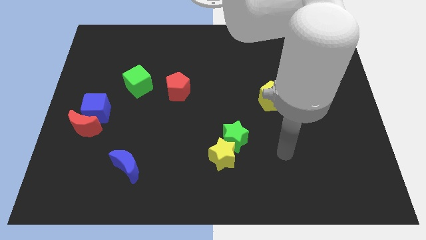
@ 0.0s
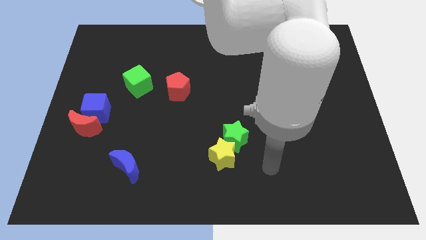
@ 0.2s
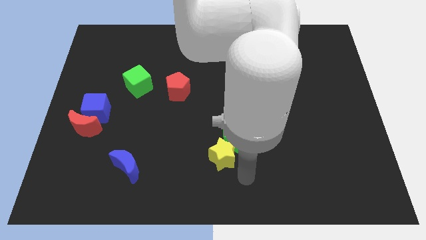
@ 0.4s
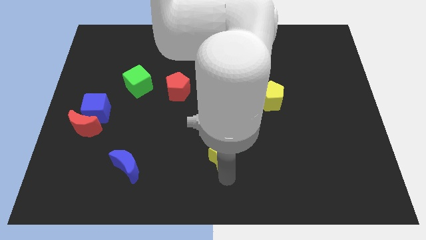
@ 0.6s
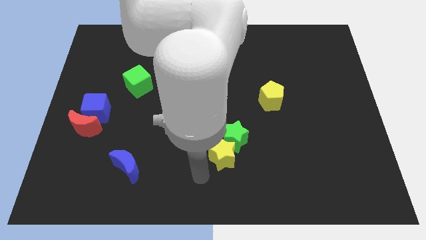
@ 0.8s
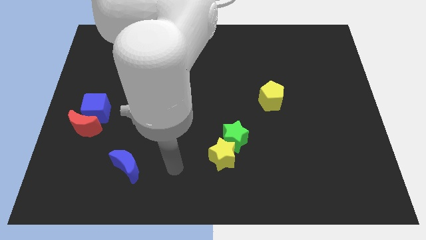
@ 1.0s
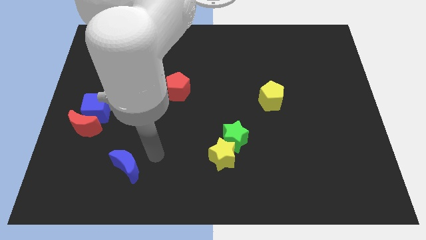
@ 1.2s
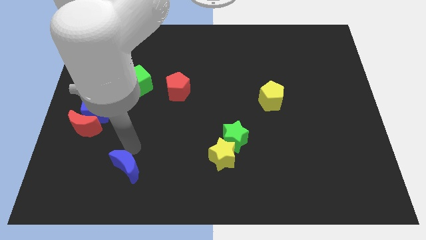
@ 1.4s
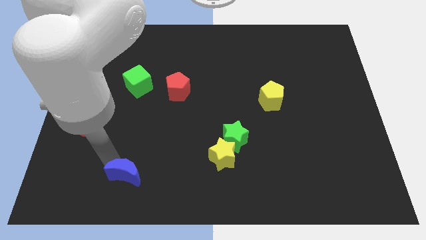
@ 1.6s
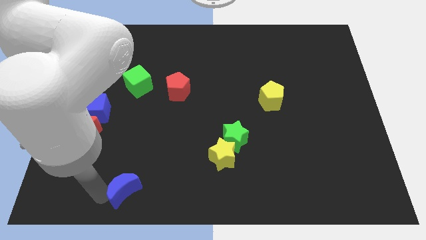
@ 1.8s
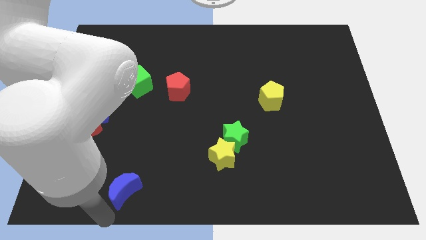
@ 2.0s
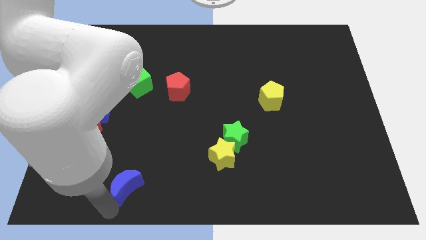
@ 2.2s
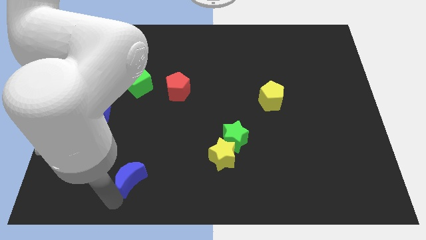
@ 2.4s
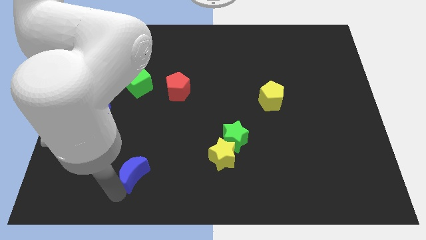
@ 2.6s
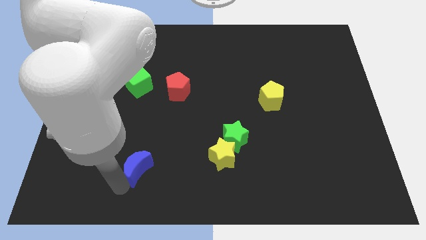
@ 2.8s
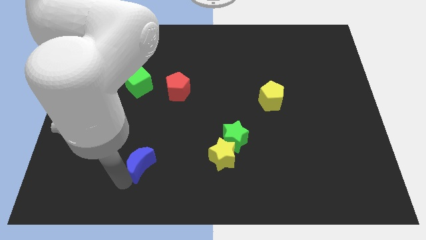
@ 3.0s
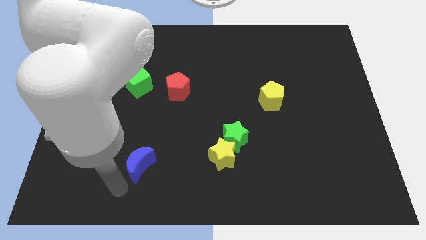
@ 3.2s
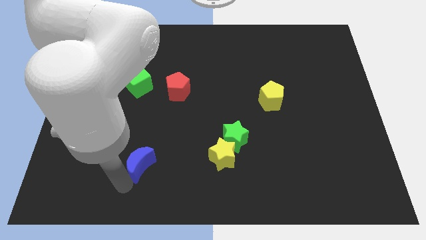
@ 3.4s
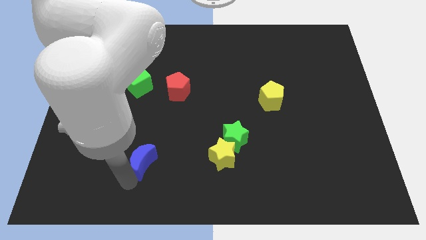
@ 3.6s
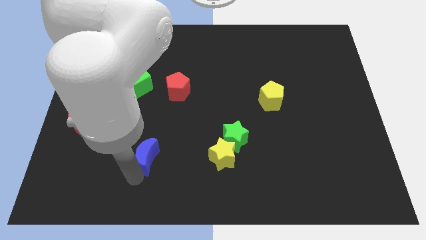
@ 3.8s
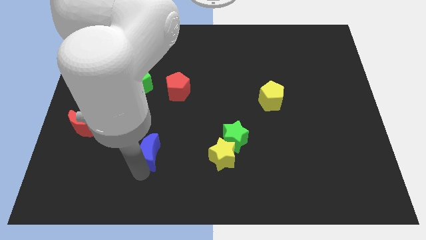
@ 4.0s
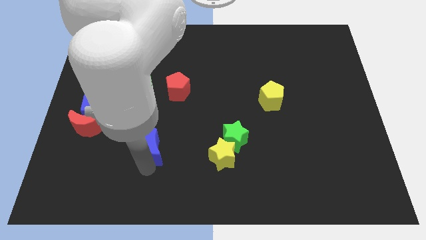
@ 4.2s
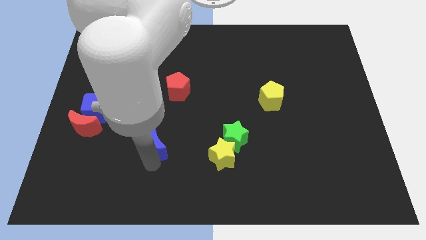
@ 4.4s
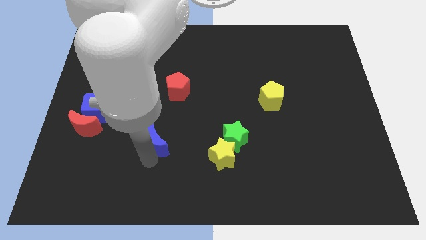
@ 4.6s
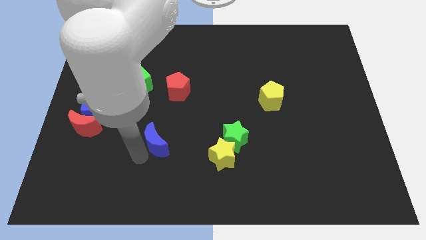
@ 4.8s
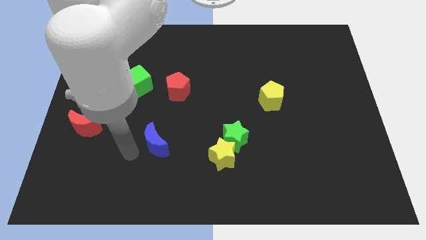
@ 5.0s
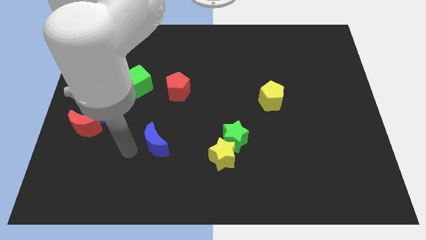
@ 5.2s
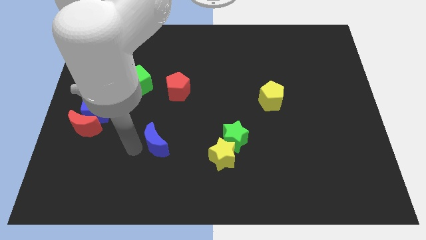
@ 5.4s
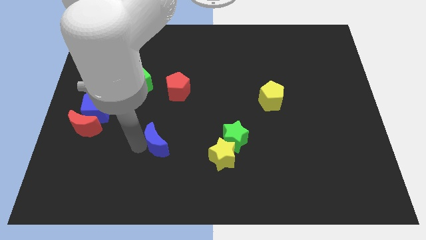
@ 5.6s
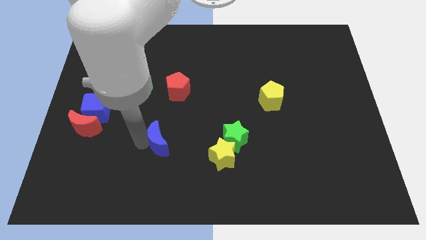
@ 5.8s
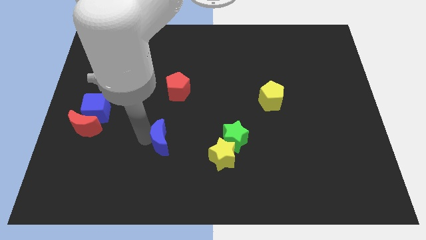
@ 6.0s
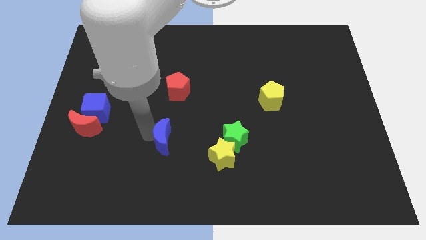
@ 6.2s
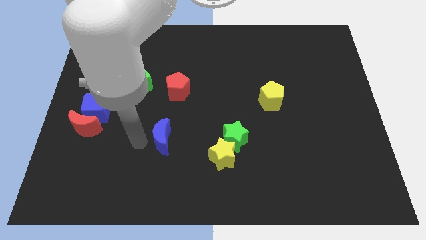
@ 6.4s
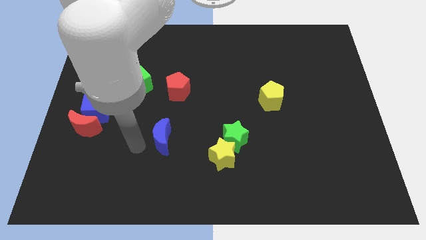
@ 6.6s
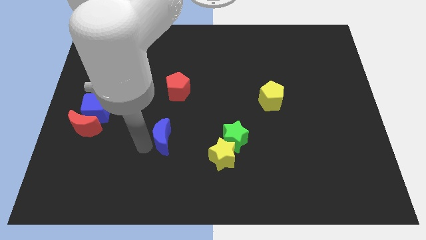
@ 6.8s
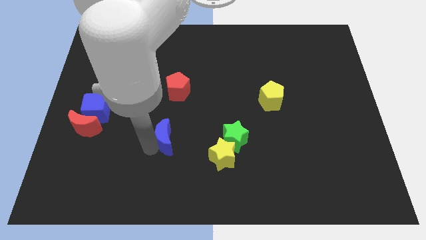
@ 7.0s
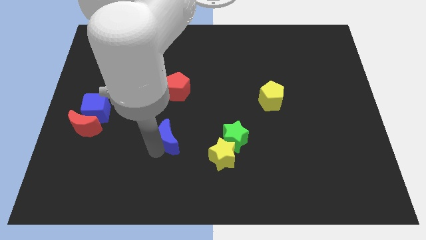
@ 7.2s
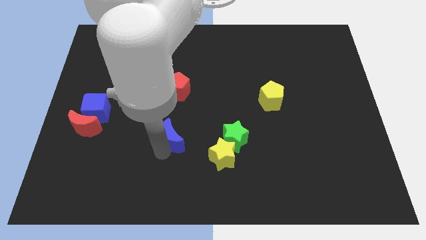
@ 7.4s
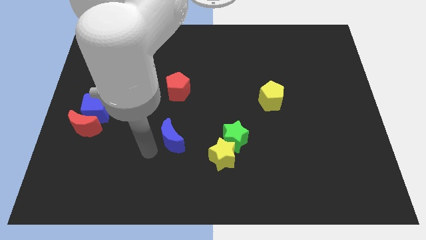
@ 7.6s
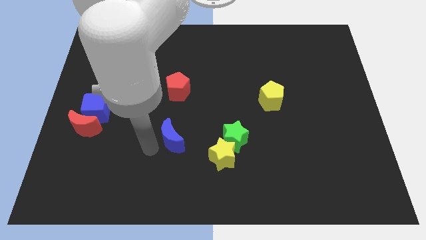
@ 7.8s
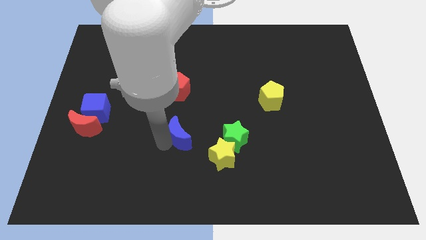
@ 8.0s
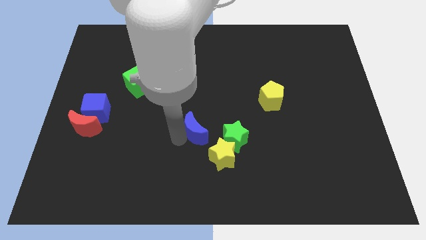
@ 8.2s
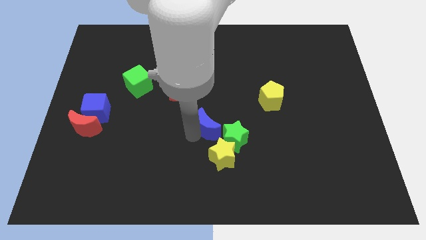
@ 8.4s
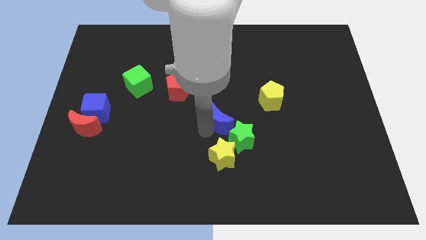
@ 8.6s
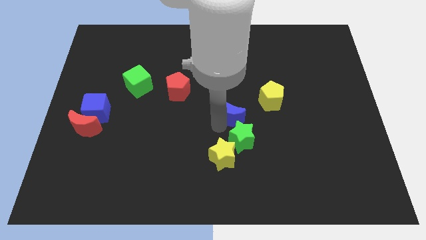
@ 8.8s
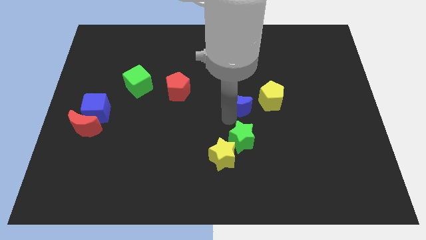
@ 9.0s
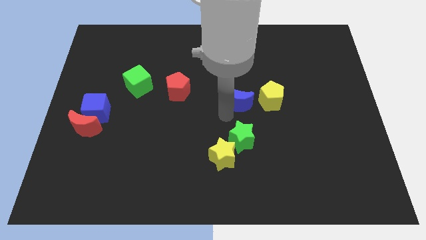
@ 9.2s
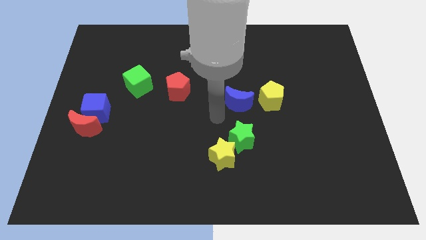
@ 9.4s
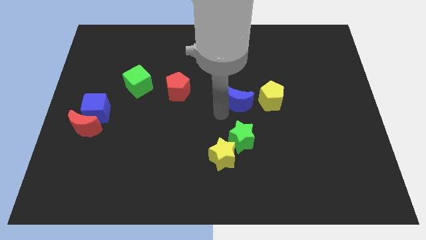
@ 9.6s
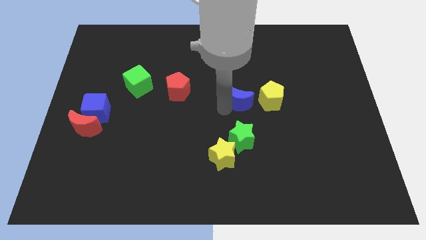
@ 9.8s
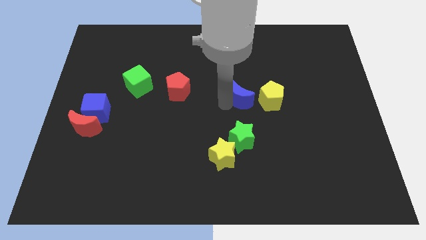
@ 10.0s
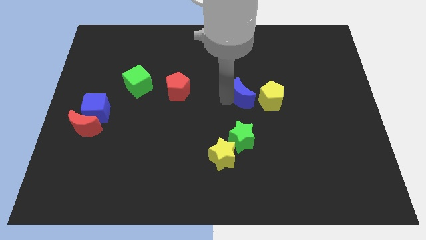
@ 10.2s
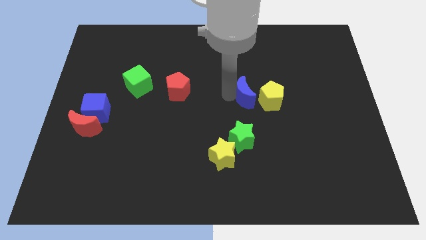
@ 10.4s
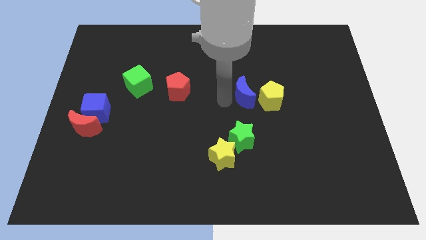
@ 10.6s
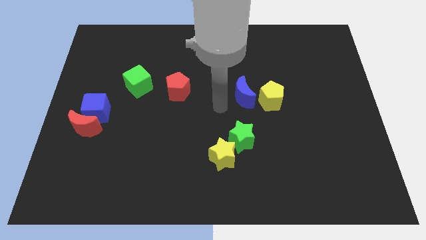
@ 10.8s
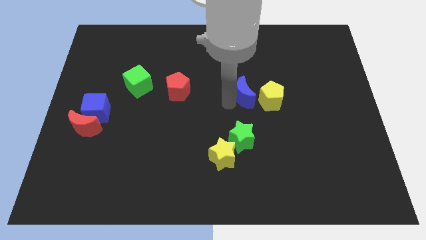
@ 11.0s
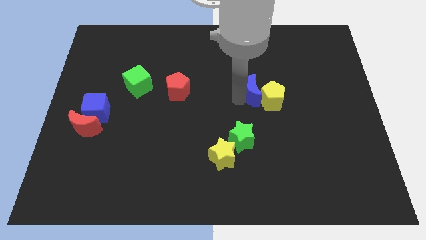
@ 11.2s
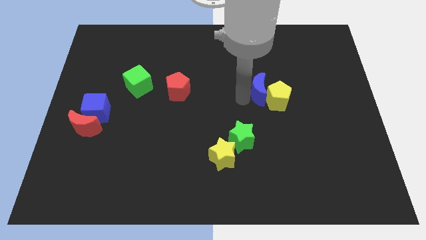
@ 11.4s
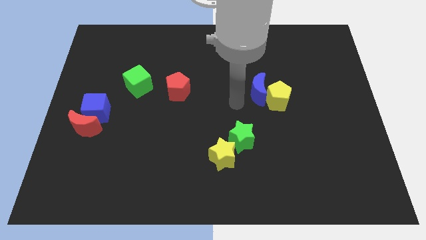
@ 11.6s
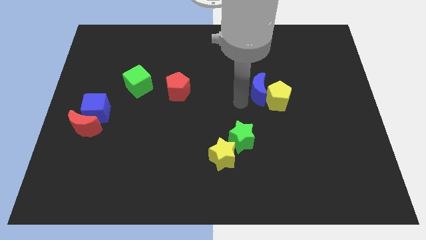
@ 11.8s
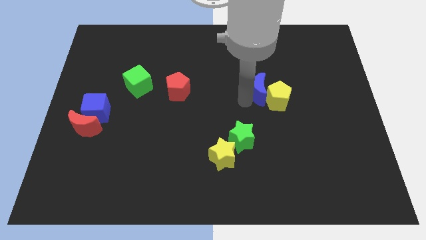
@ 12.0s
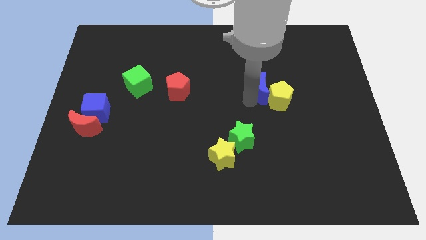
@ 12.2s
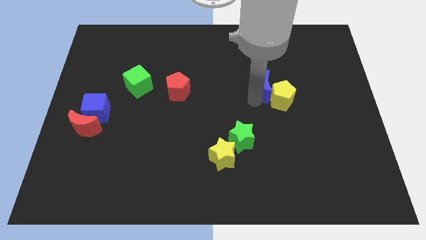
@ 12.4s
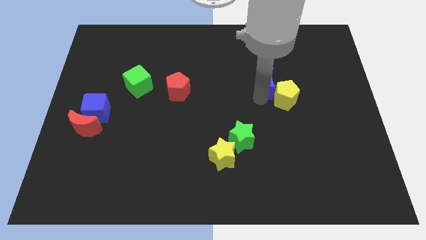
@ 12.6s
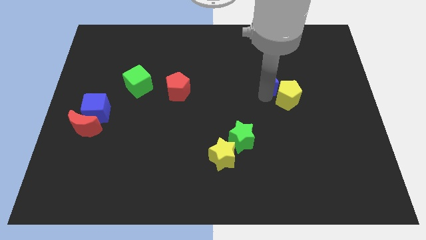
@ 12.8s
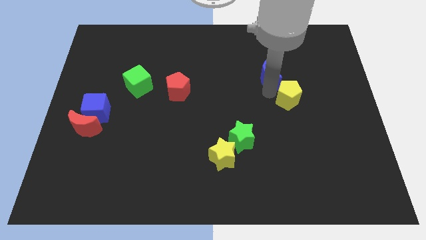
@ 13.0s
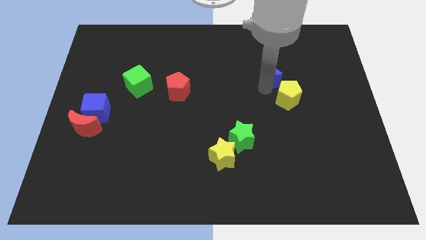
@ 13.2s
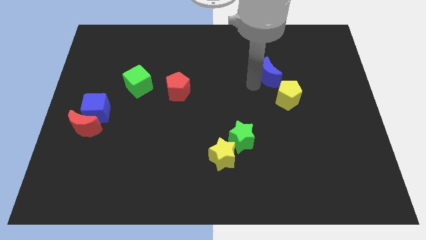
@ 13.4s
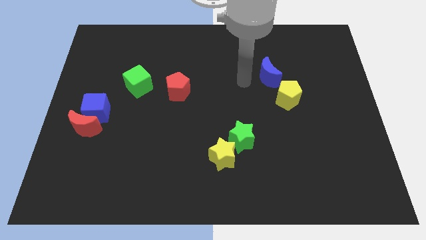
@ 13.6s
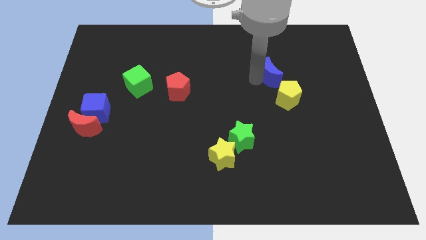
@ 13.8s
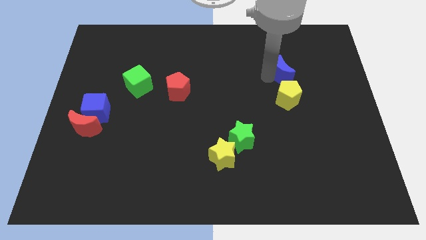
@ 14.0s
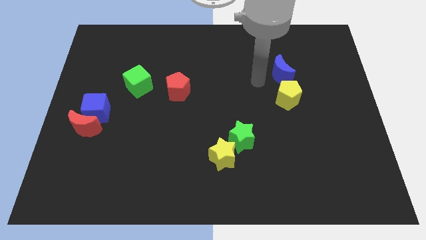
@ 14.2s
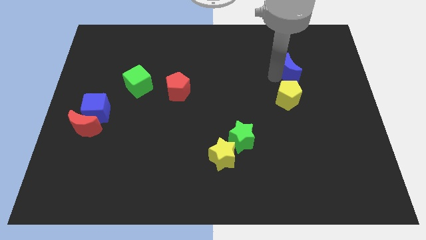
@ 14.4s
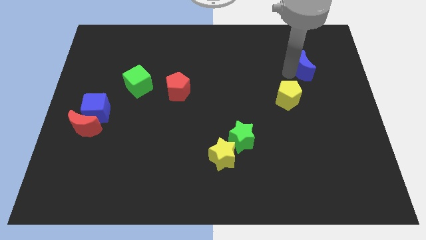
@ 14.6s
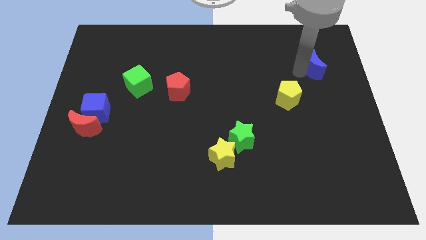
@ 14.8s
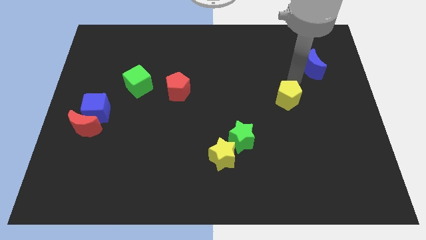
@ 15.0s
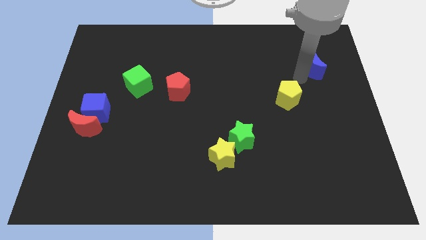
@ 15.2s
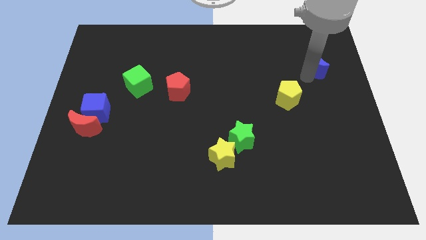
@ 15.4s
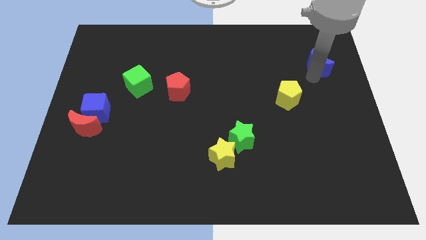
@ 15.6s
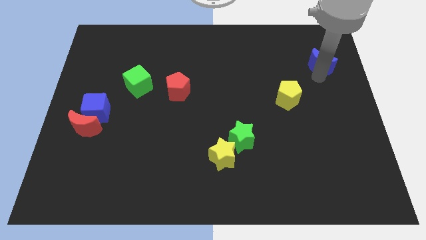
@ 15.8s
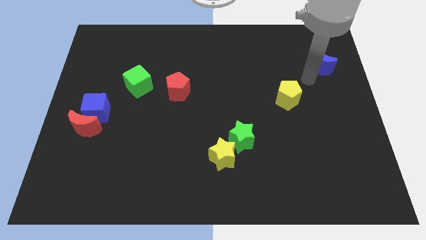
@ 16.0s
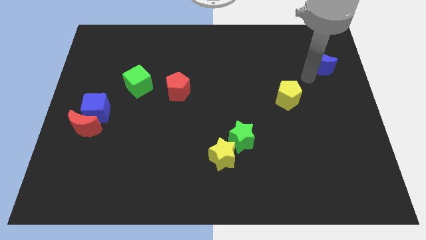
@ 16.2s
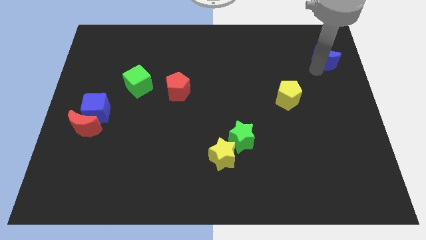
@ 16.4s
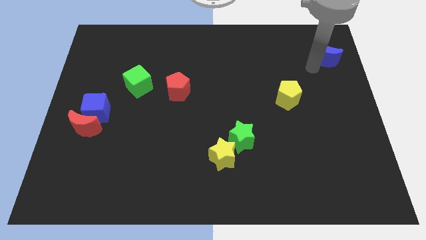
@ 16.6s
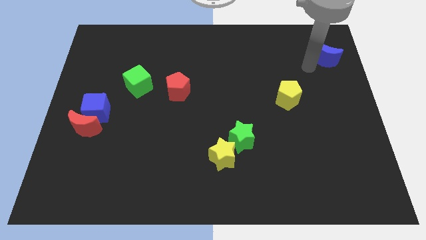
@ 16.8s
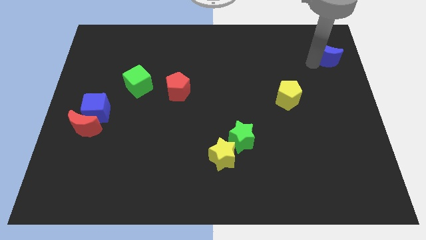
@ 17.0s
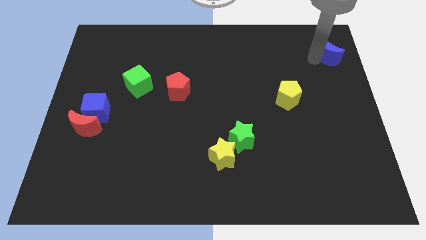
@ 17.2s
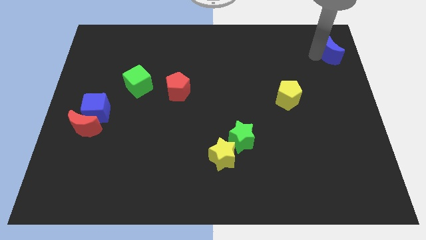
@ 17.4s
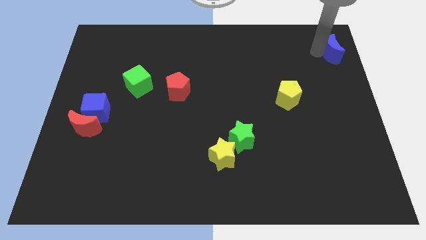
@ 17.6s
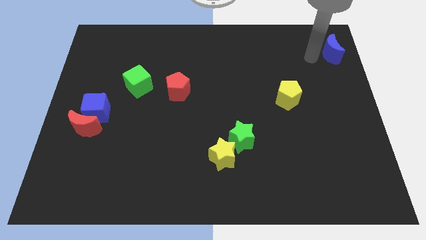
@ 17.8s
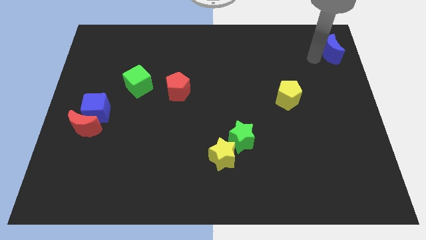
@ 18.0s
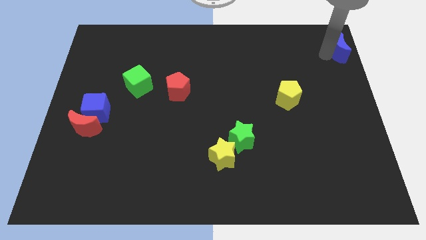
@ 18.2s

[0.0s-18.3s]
move the blue moon to the top right of the board
